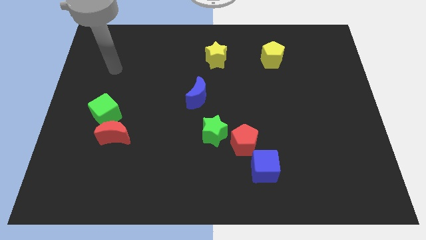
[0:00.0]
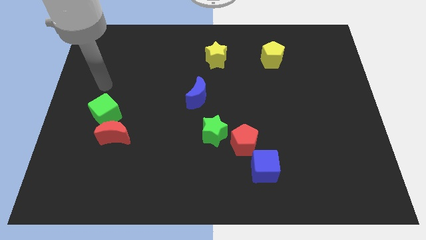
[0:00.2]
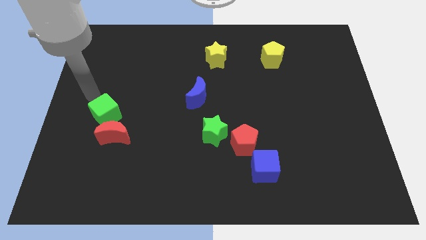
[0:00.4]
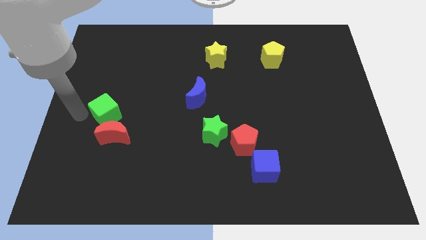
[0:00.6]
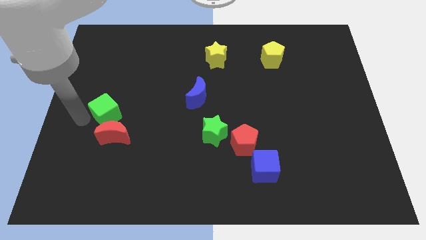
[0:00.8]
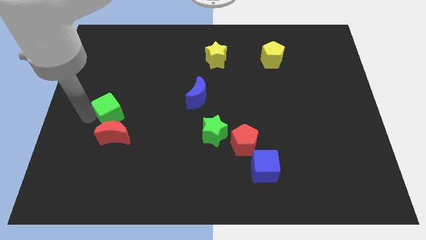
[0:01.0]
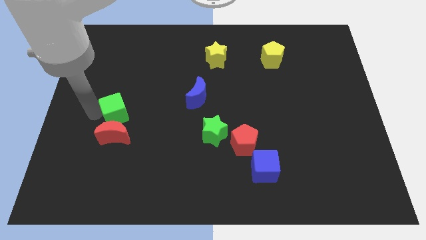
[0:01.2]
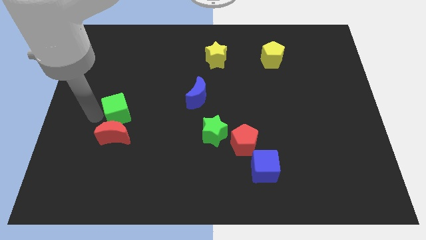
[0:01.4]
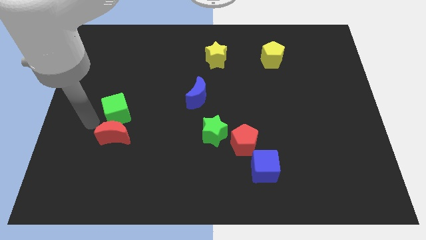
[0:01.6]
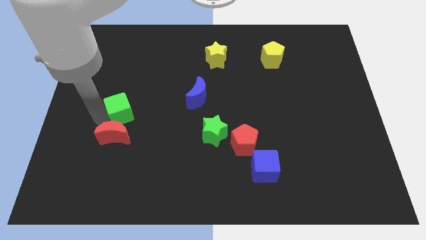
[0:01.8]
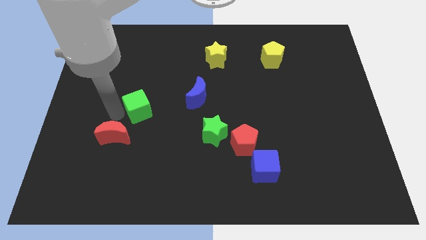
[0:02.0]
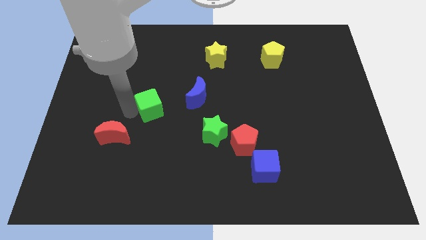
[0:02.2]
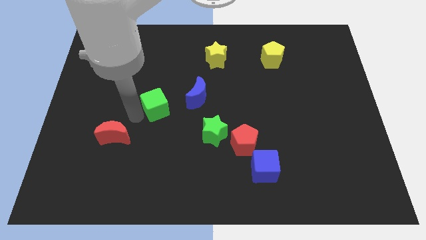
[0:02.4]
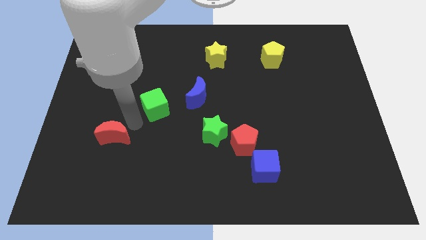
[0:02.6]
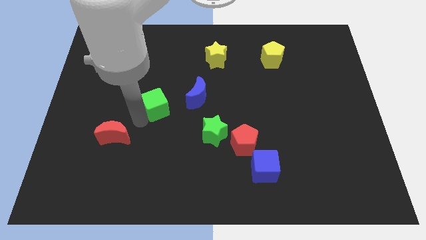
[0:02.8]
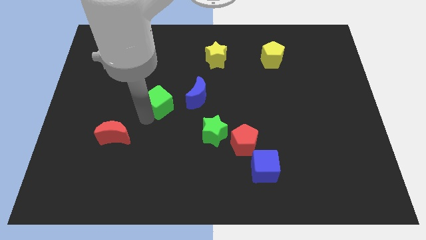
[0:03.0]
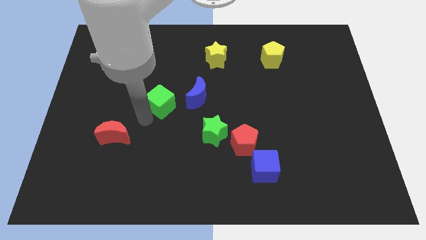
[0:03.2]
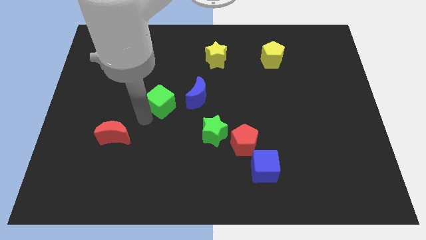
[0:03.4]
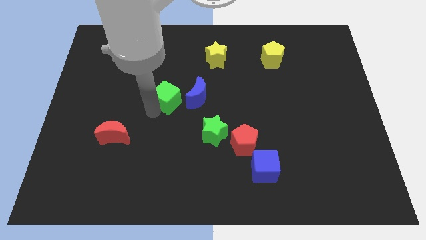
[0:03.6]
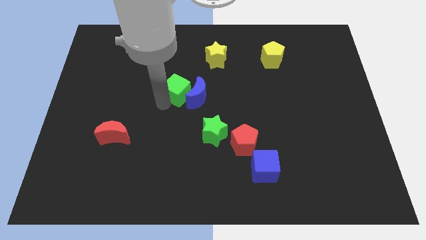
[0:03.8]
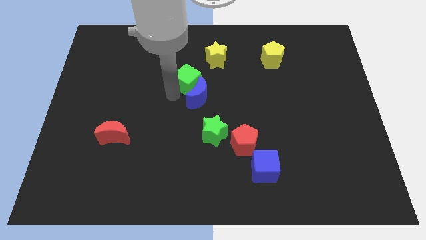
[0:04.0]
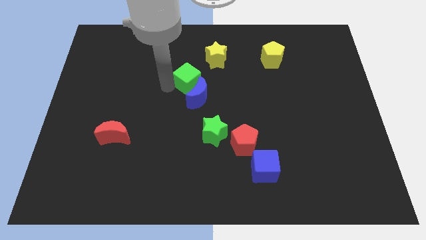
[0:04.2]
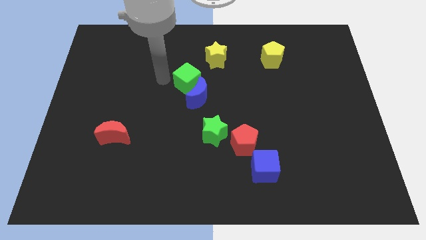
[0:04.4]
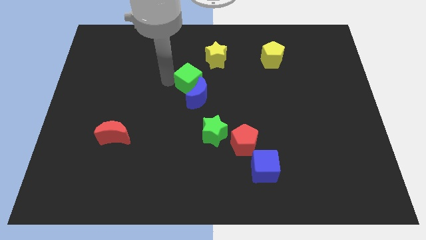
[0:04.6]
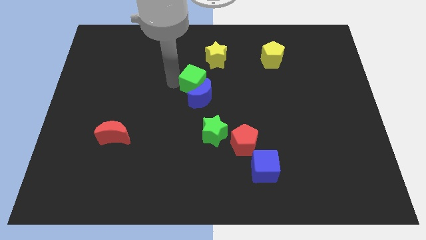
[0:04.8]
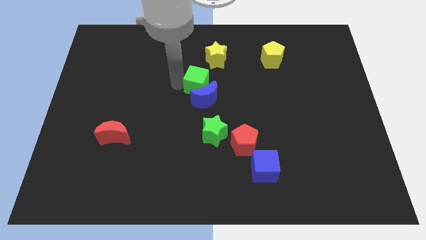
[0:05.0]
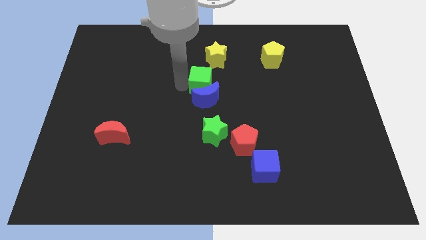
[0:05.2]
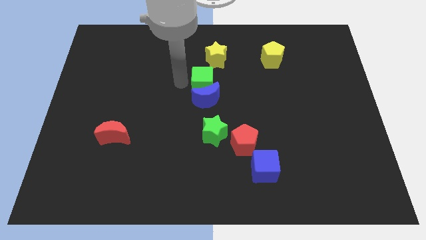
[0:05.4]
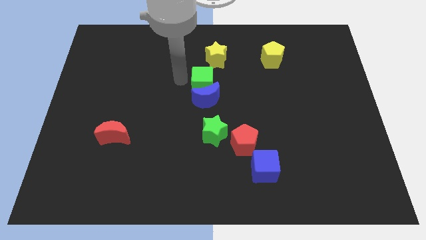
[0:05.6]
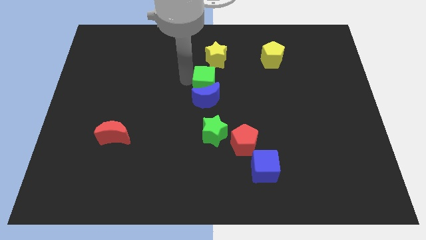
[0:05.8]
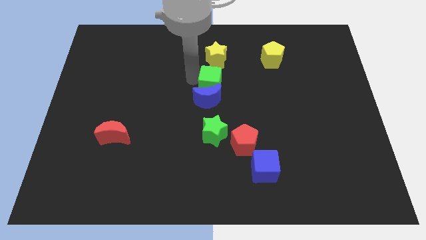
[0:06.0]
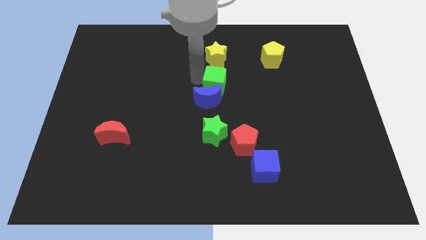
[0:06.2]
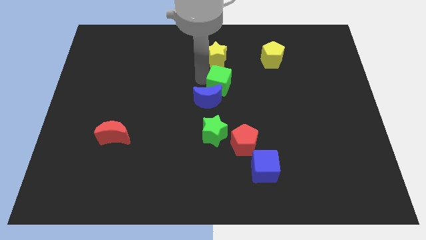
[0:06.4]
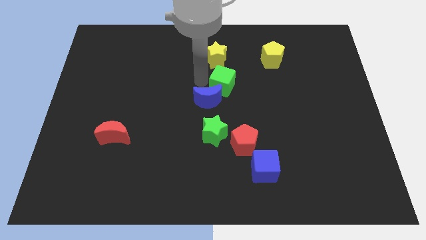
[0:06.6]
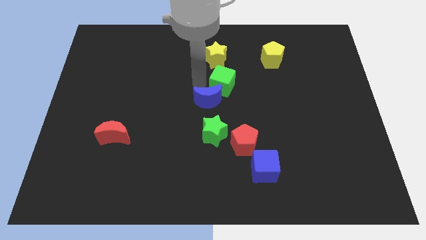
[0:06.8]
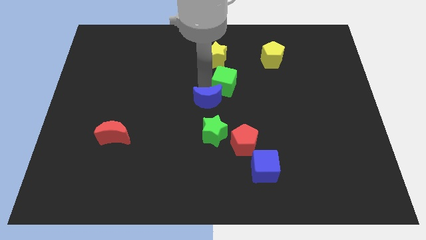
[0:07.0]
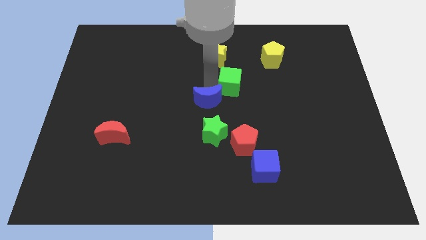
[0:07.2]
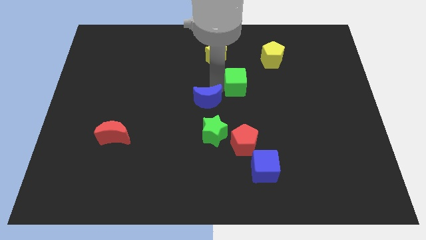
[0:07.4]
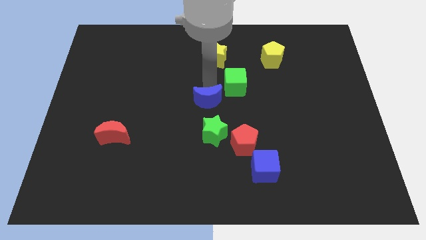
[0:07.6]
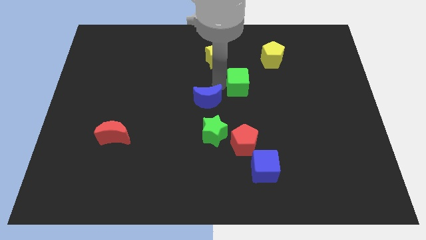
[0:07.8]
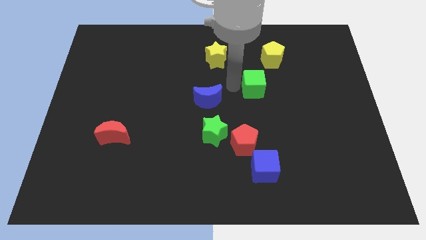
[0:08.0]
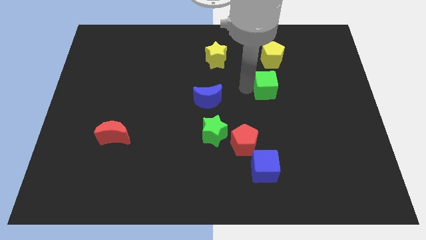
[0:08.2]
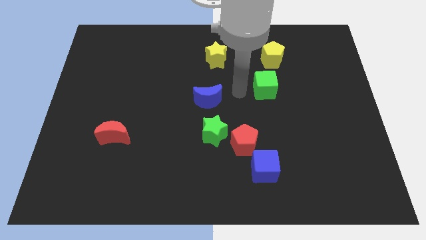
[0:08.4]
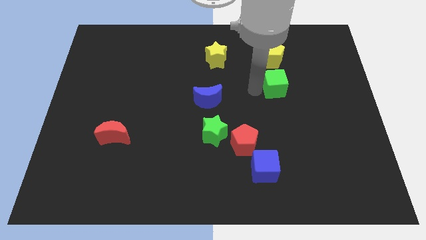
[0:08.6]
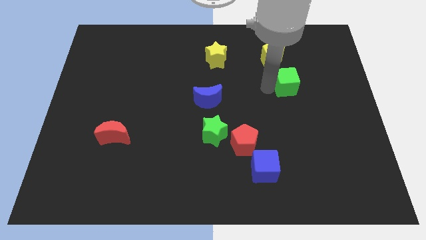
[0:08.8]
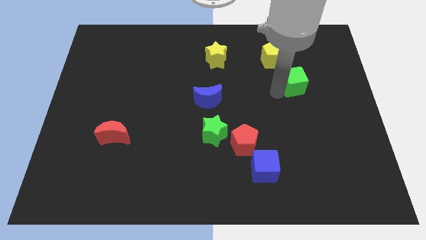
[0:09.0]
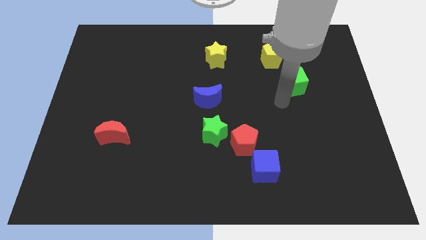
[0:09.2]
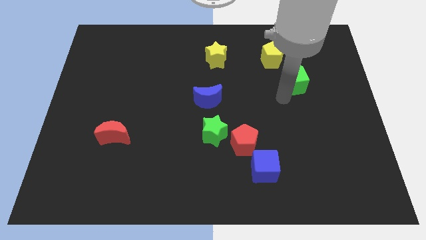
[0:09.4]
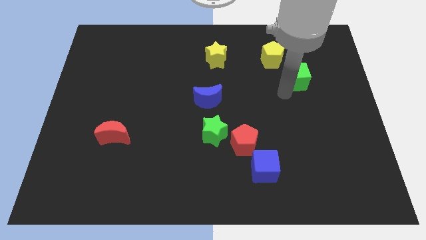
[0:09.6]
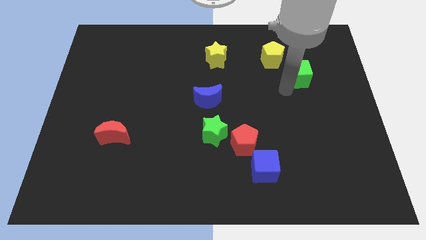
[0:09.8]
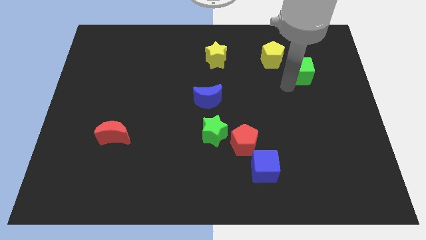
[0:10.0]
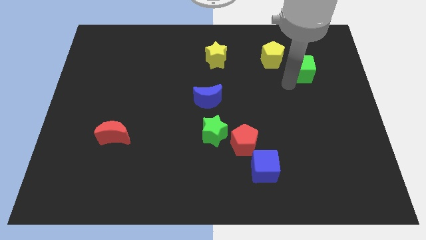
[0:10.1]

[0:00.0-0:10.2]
move the green cube right of the yellow pentagon
